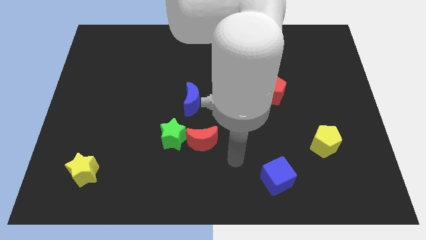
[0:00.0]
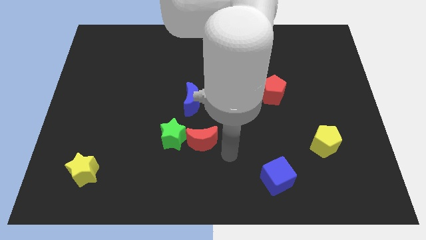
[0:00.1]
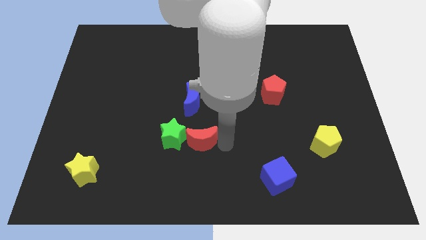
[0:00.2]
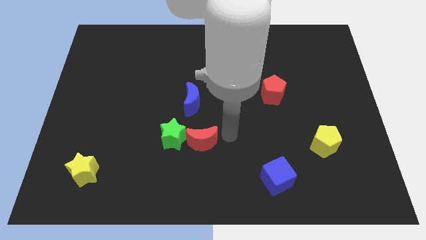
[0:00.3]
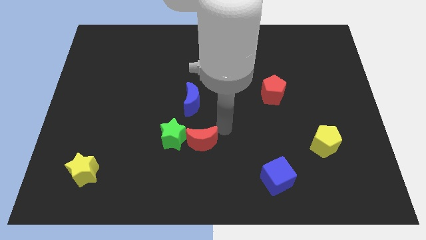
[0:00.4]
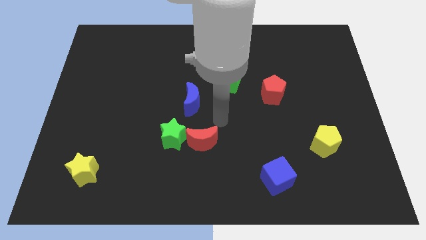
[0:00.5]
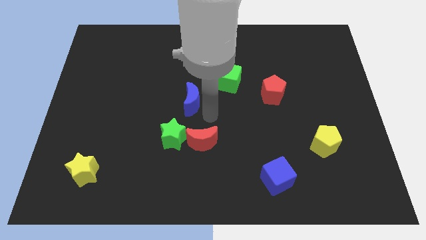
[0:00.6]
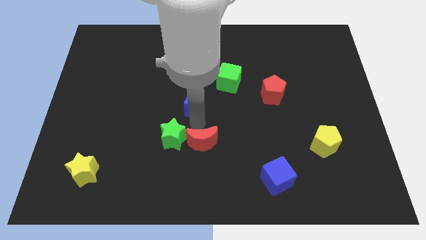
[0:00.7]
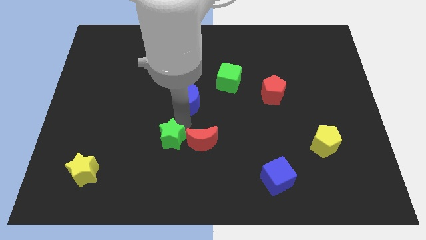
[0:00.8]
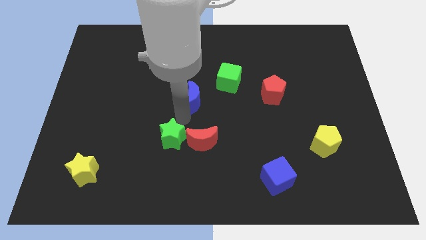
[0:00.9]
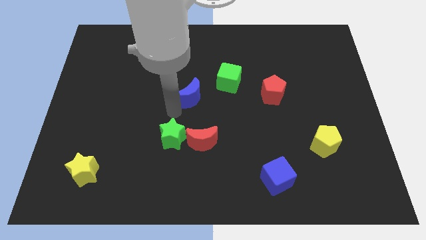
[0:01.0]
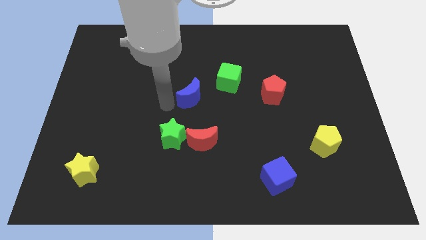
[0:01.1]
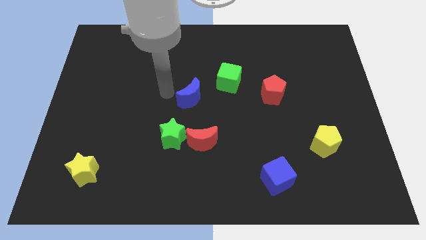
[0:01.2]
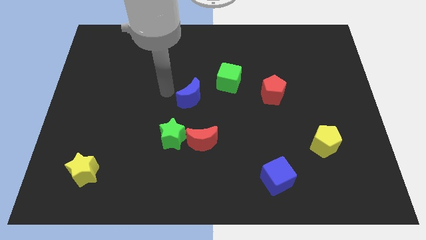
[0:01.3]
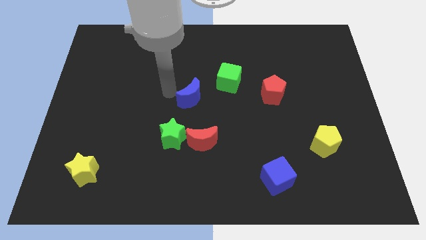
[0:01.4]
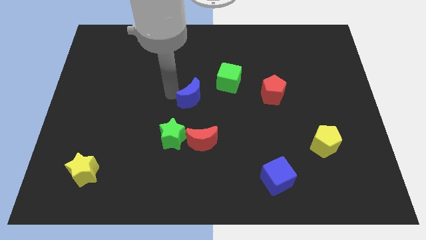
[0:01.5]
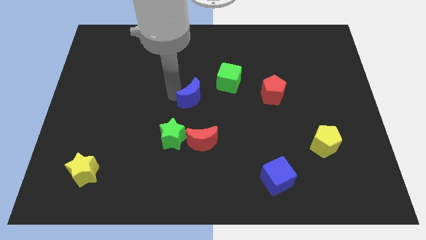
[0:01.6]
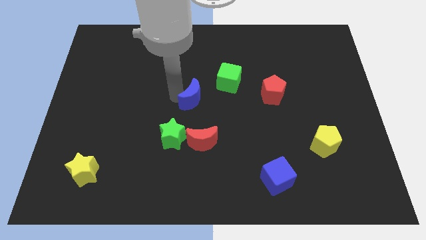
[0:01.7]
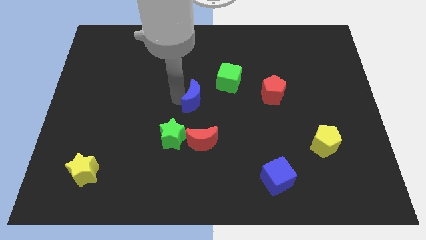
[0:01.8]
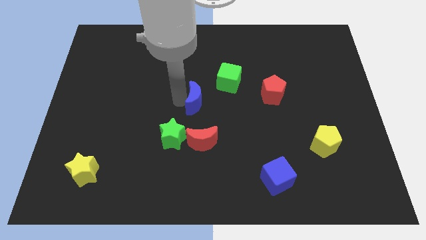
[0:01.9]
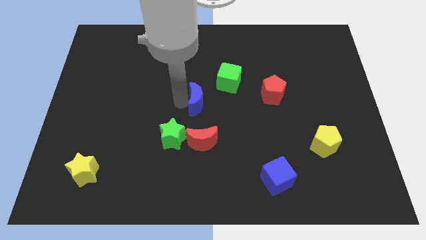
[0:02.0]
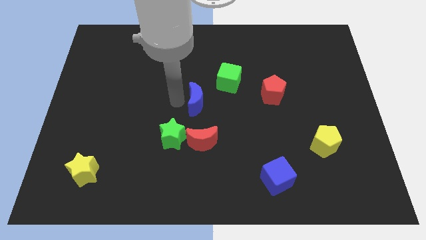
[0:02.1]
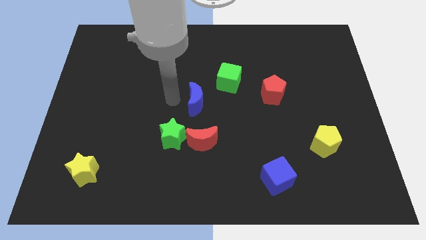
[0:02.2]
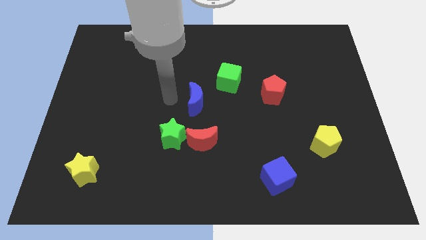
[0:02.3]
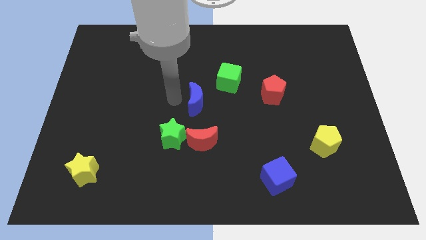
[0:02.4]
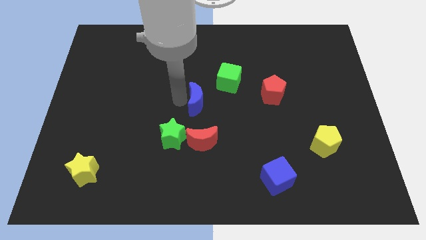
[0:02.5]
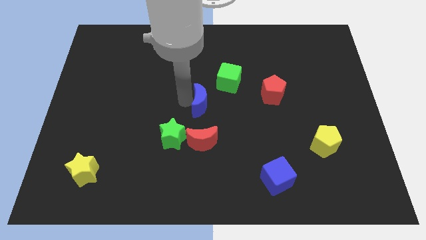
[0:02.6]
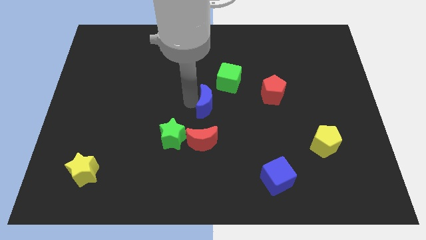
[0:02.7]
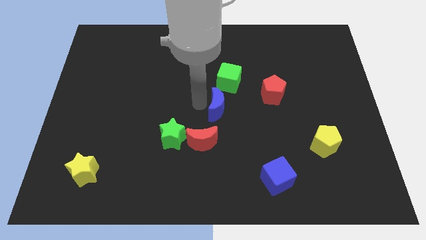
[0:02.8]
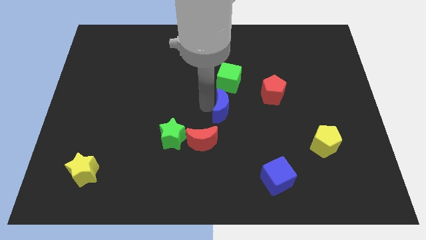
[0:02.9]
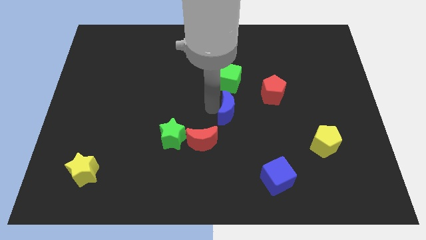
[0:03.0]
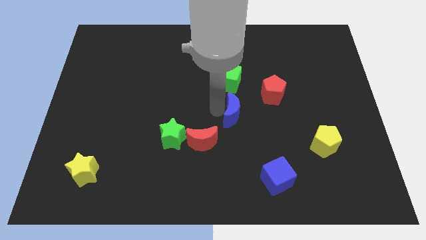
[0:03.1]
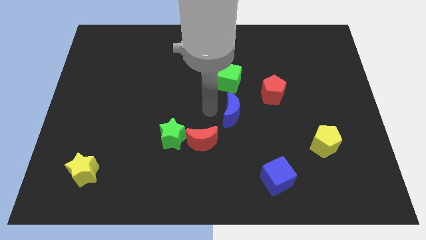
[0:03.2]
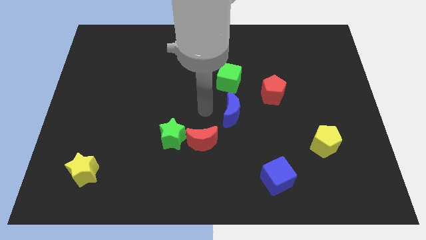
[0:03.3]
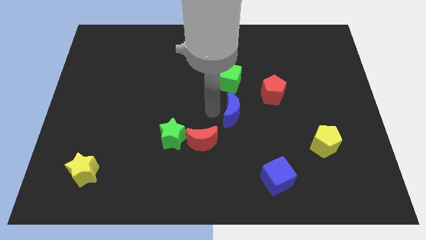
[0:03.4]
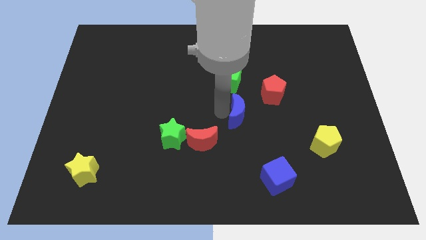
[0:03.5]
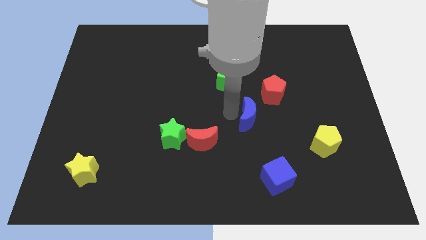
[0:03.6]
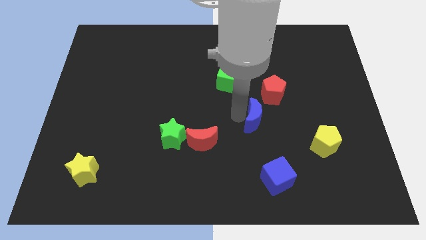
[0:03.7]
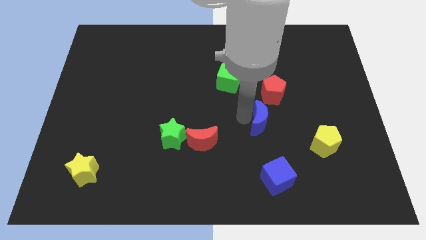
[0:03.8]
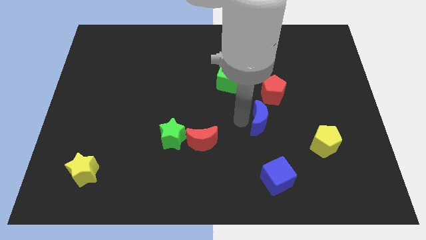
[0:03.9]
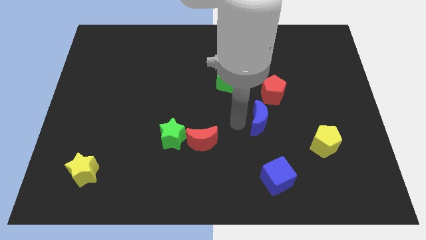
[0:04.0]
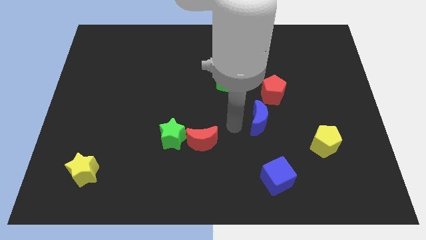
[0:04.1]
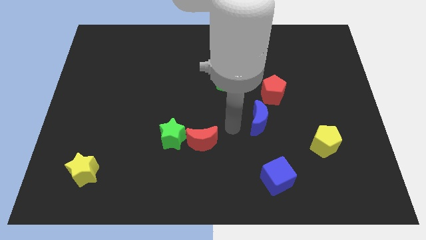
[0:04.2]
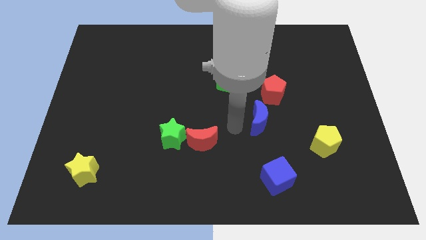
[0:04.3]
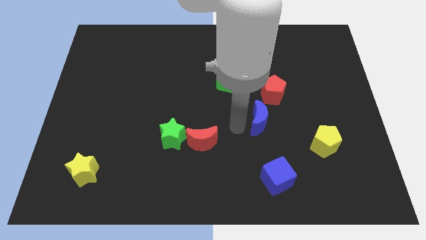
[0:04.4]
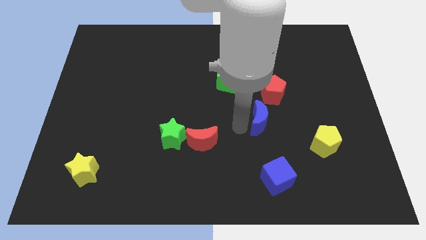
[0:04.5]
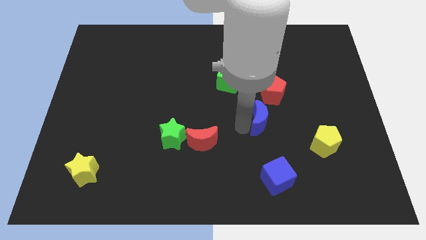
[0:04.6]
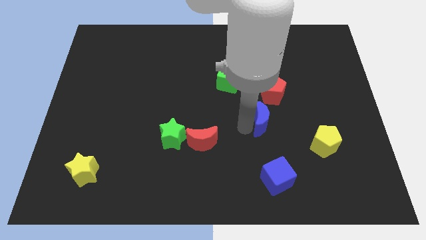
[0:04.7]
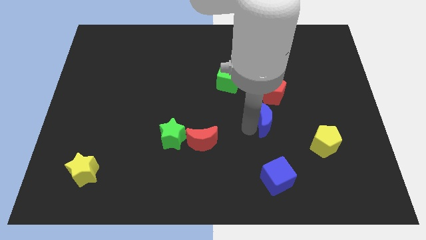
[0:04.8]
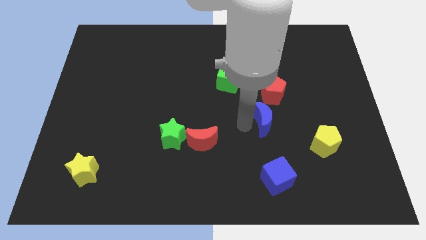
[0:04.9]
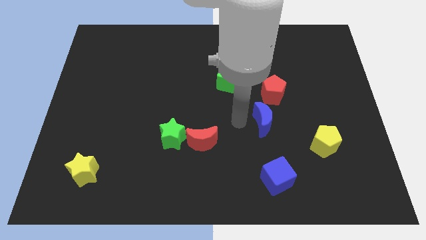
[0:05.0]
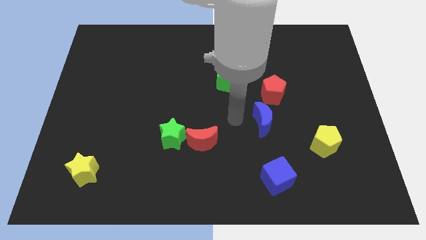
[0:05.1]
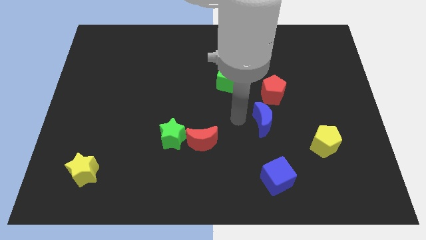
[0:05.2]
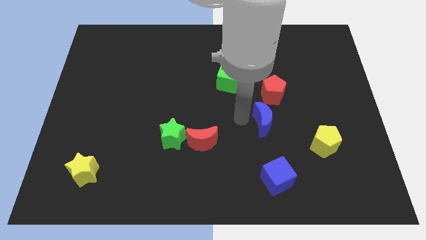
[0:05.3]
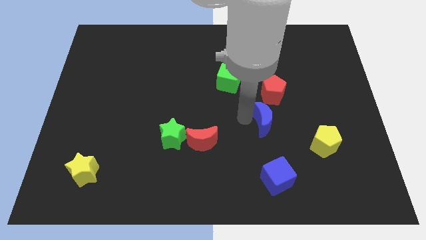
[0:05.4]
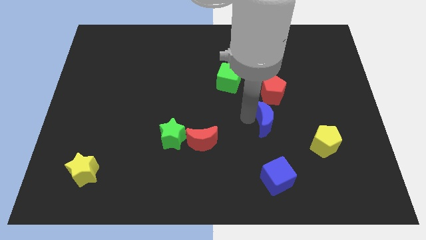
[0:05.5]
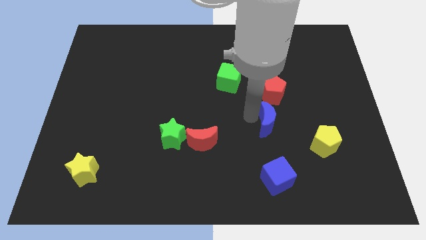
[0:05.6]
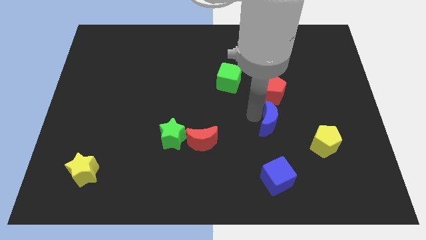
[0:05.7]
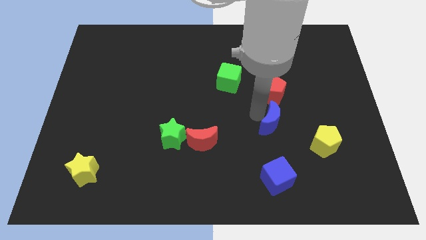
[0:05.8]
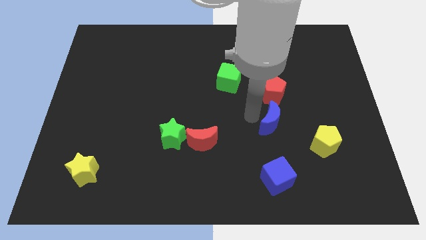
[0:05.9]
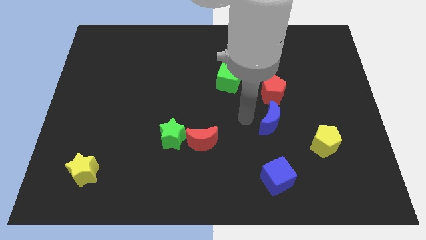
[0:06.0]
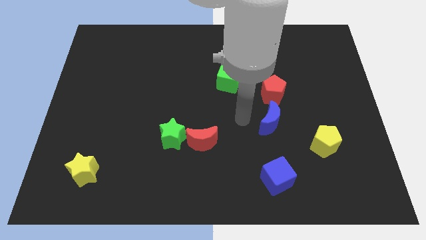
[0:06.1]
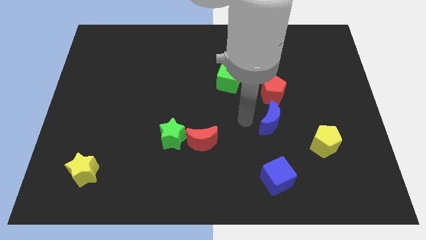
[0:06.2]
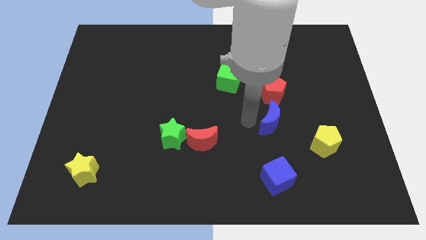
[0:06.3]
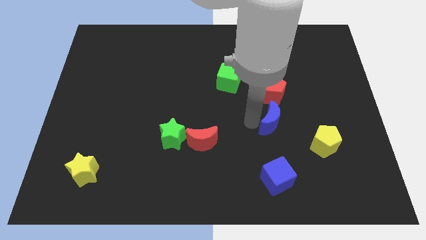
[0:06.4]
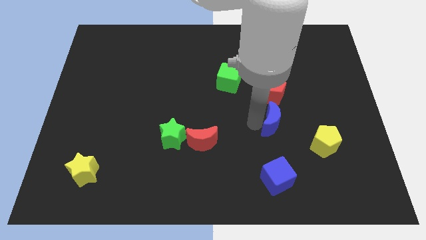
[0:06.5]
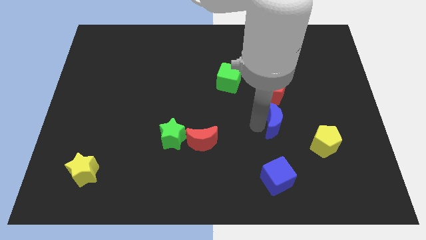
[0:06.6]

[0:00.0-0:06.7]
put the blue moon to the top left of the yellow pentagon
